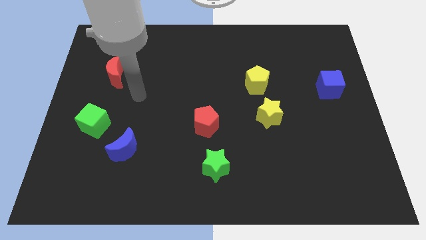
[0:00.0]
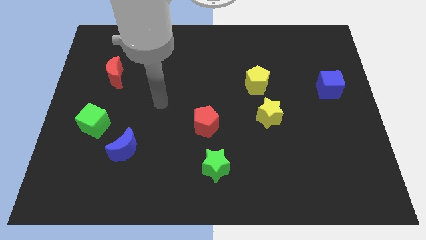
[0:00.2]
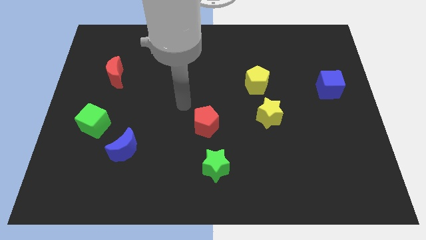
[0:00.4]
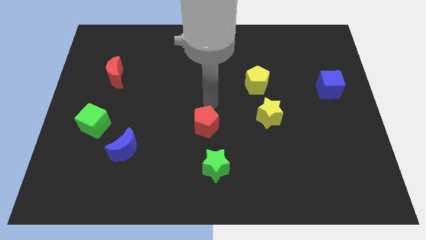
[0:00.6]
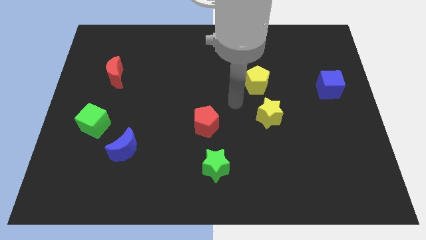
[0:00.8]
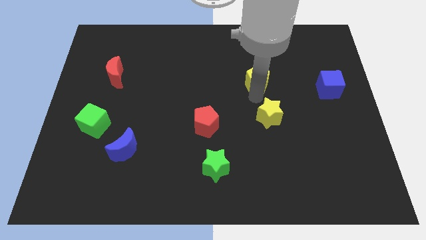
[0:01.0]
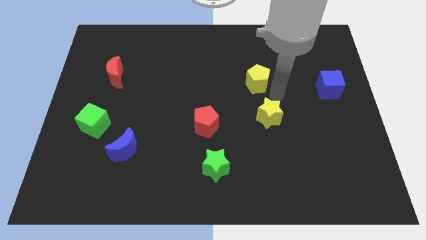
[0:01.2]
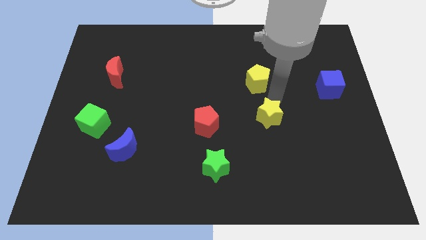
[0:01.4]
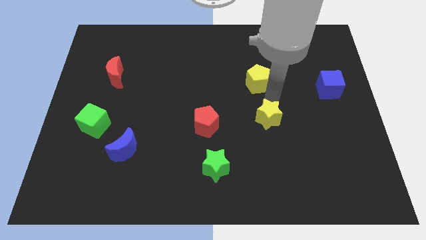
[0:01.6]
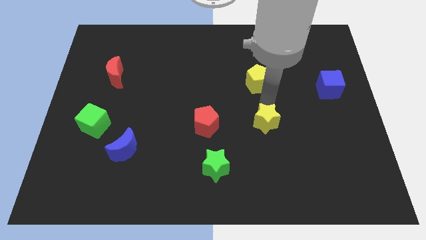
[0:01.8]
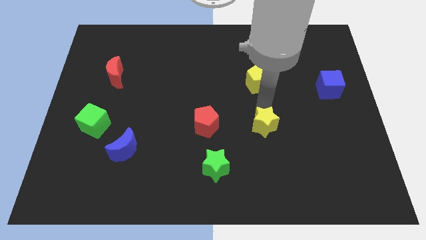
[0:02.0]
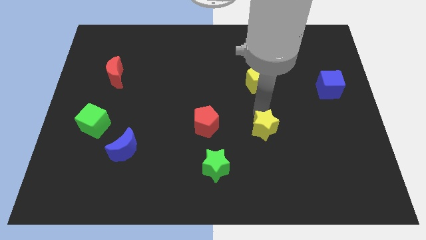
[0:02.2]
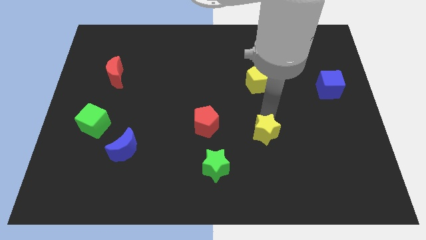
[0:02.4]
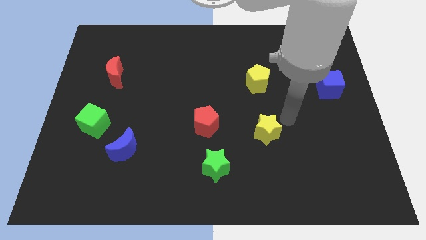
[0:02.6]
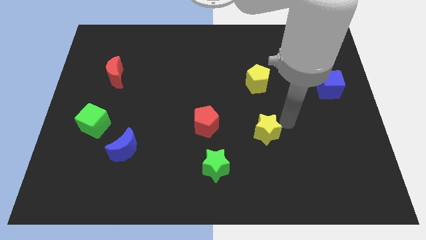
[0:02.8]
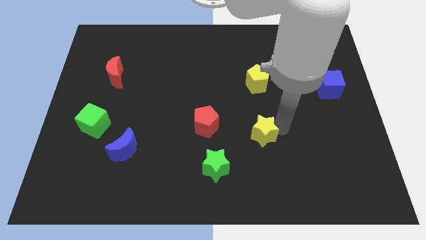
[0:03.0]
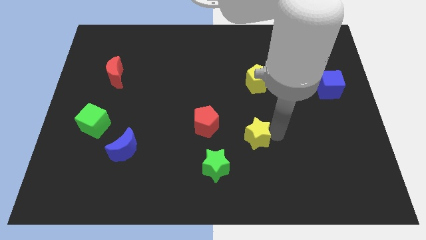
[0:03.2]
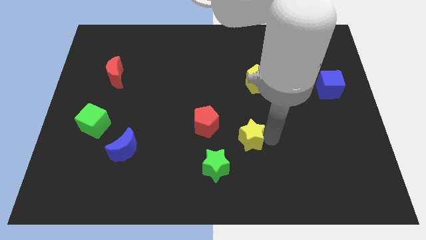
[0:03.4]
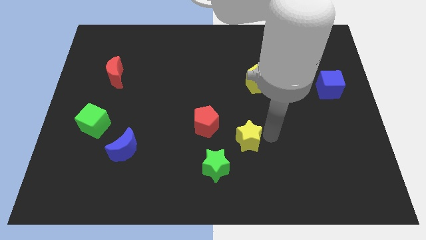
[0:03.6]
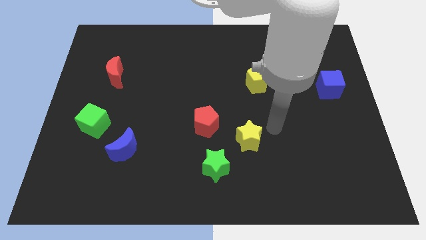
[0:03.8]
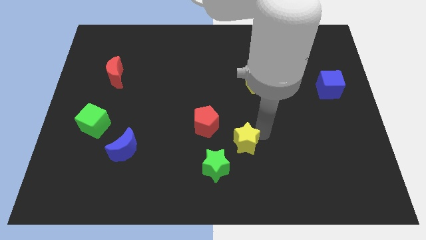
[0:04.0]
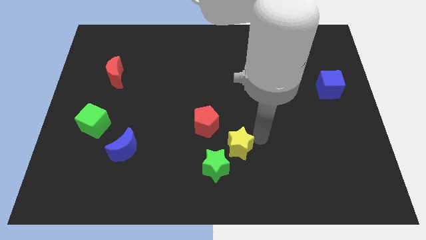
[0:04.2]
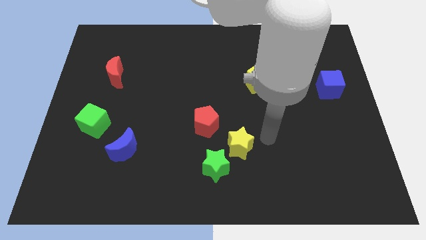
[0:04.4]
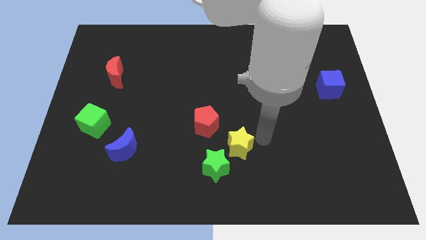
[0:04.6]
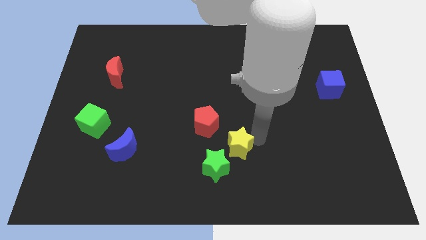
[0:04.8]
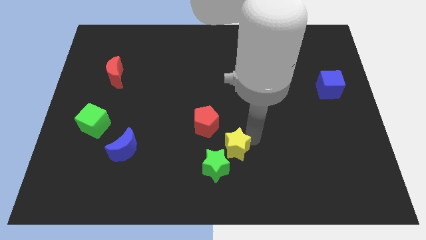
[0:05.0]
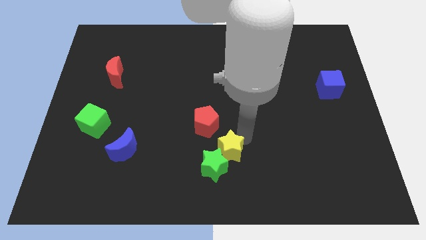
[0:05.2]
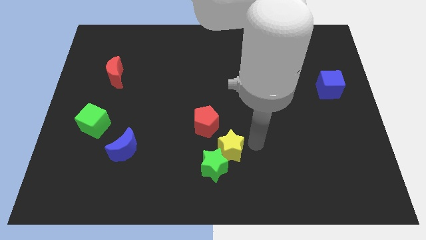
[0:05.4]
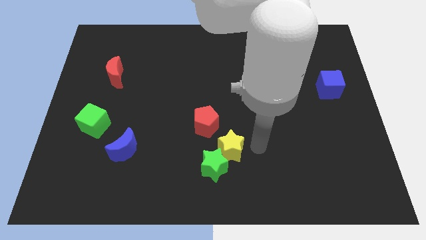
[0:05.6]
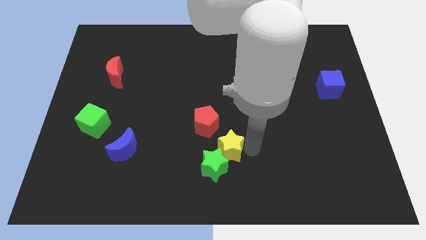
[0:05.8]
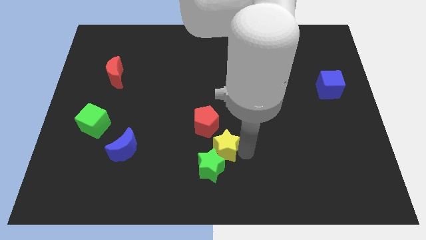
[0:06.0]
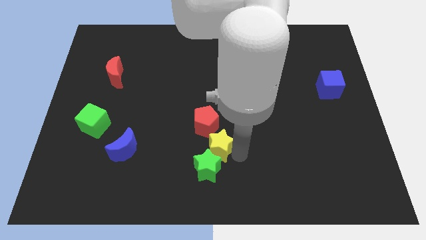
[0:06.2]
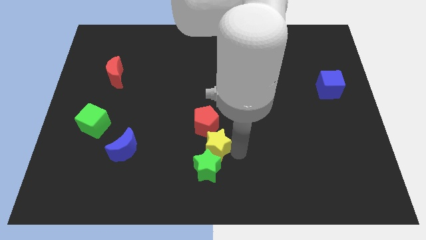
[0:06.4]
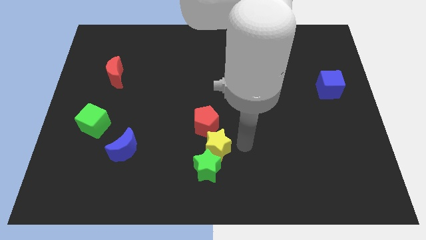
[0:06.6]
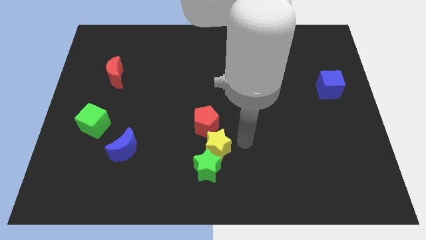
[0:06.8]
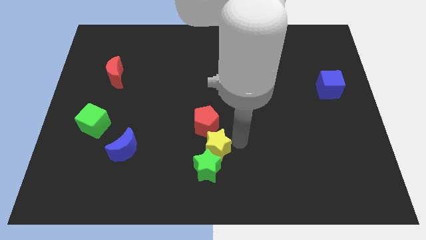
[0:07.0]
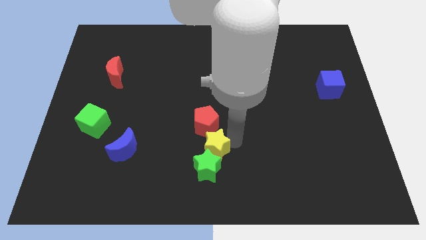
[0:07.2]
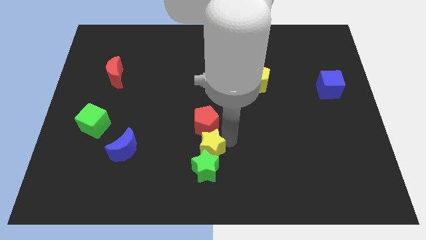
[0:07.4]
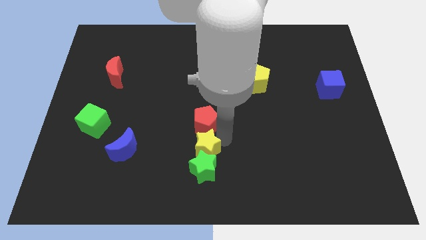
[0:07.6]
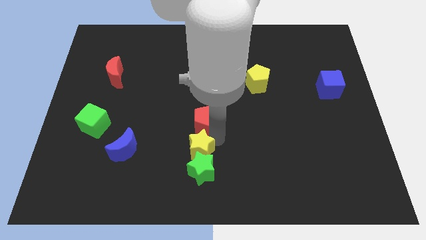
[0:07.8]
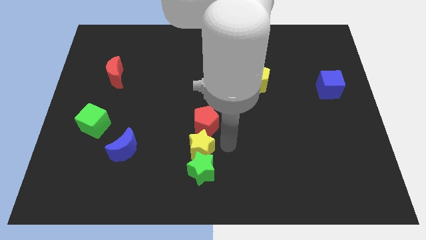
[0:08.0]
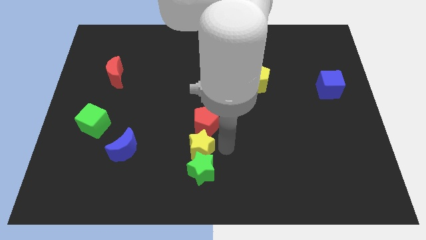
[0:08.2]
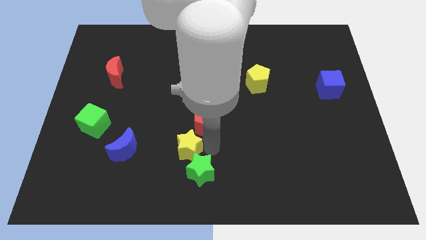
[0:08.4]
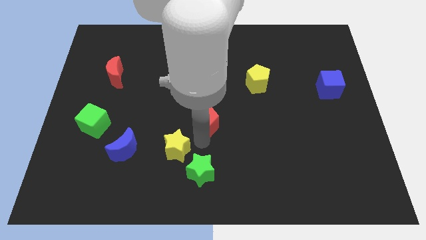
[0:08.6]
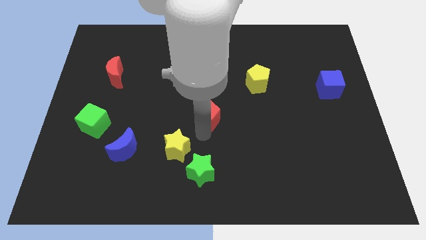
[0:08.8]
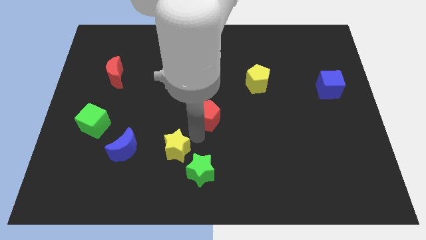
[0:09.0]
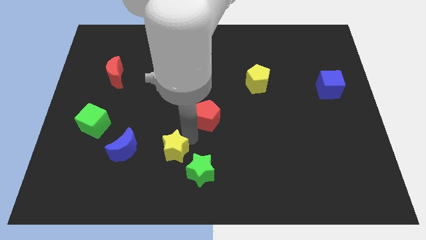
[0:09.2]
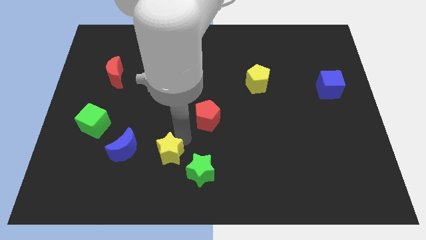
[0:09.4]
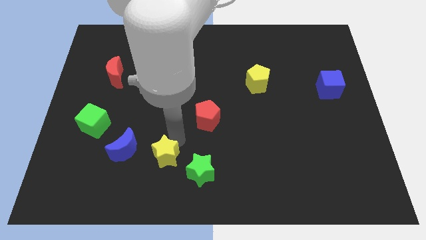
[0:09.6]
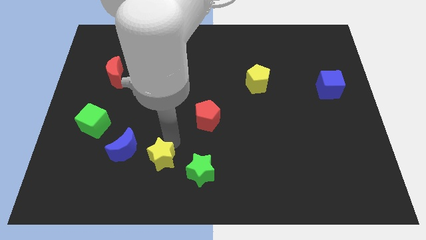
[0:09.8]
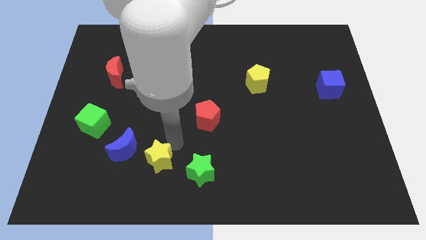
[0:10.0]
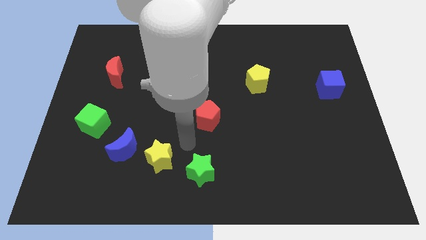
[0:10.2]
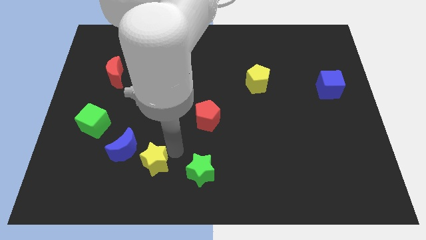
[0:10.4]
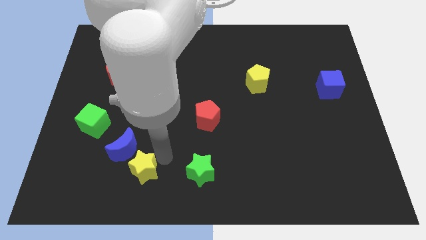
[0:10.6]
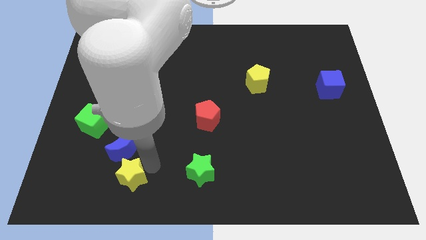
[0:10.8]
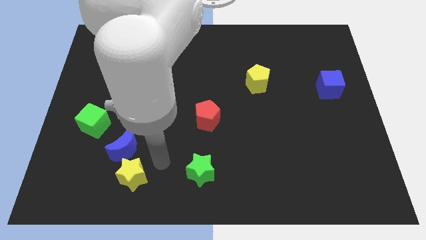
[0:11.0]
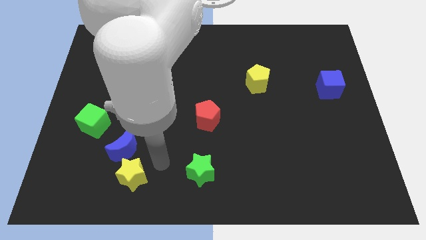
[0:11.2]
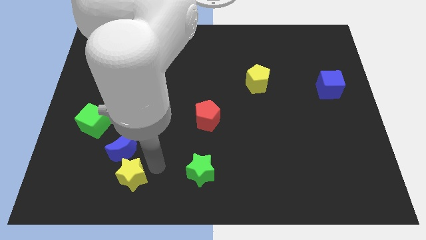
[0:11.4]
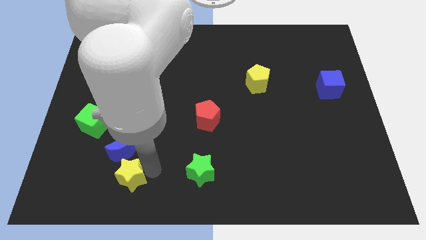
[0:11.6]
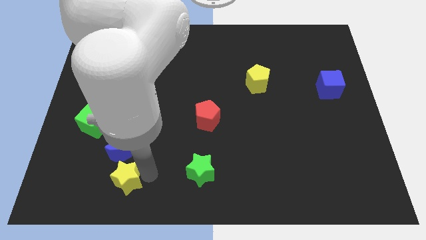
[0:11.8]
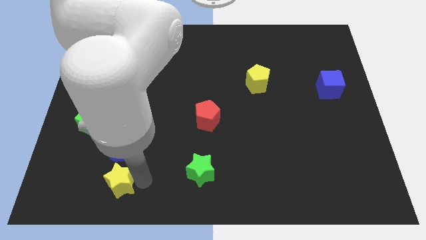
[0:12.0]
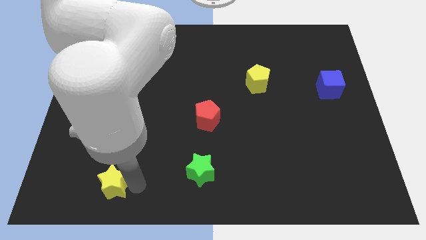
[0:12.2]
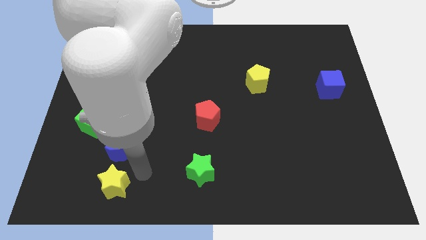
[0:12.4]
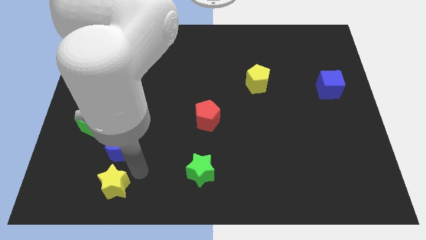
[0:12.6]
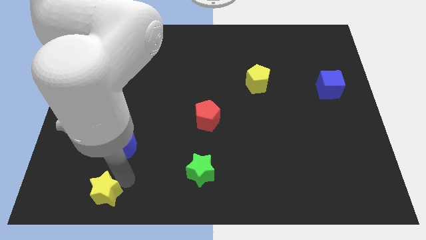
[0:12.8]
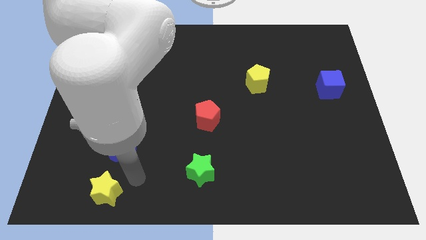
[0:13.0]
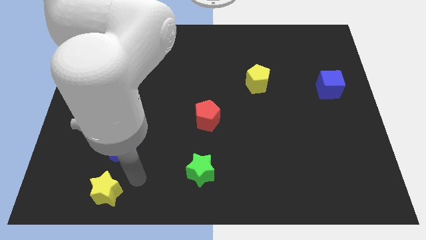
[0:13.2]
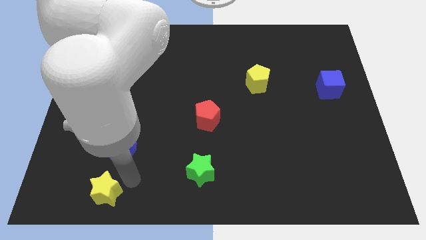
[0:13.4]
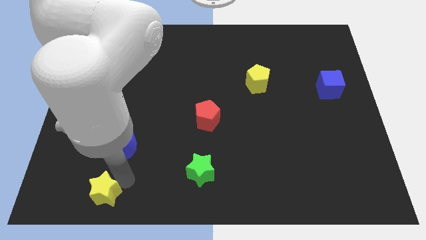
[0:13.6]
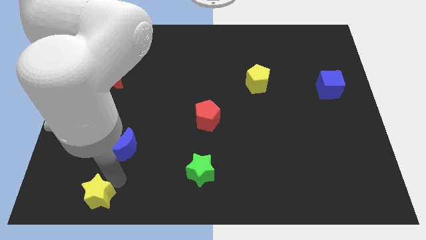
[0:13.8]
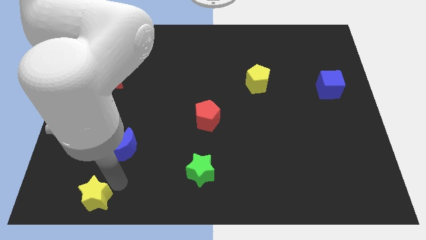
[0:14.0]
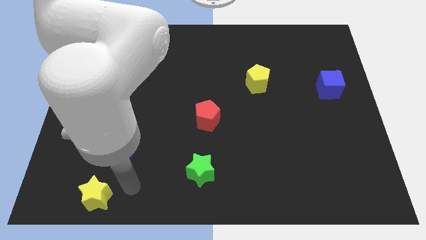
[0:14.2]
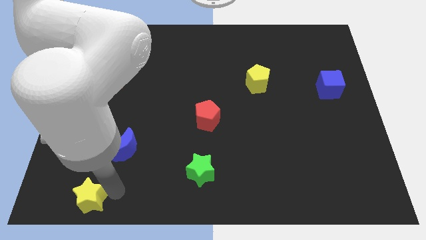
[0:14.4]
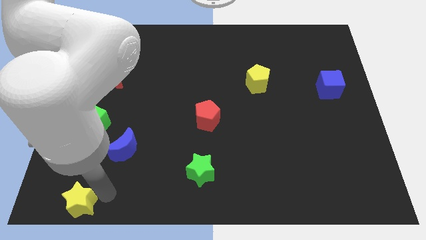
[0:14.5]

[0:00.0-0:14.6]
slide the yellow star to the lower left corner
